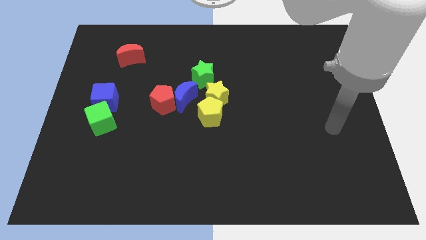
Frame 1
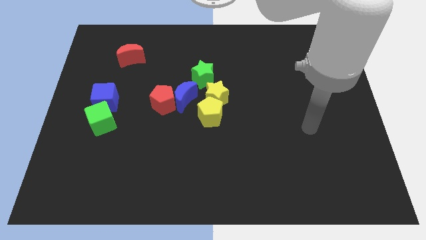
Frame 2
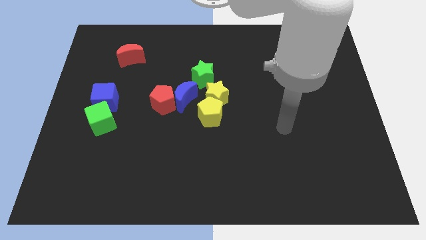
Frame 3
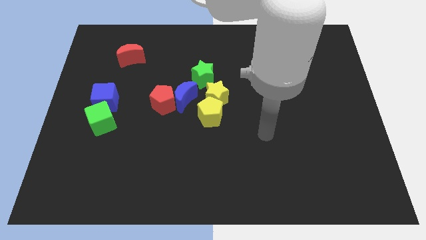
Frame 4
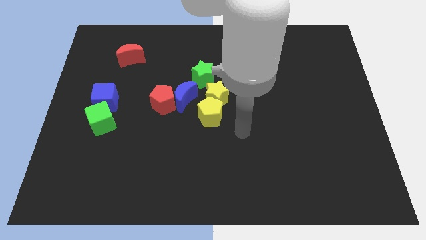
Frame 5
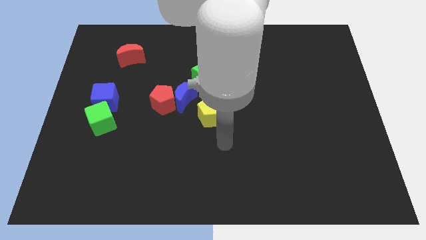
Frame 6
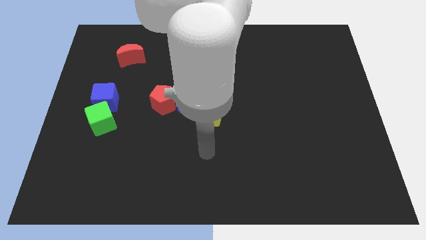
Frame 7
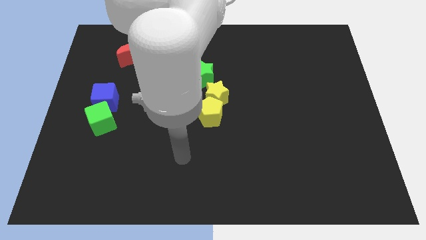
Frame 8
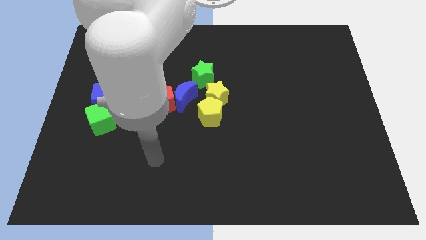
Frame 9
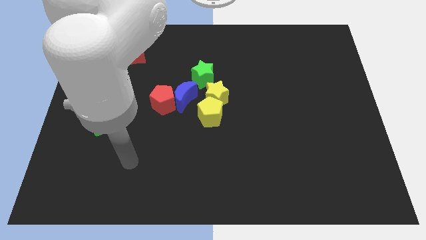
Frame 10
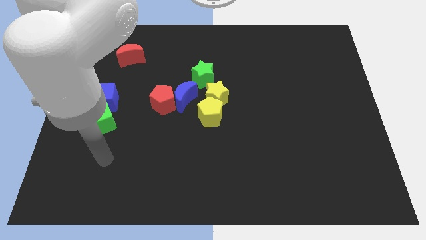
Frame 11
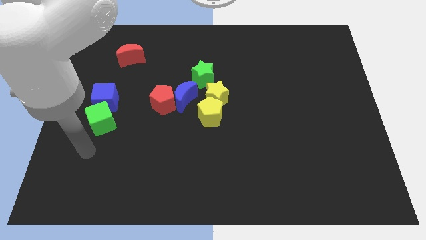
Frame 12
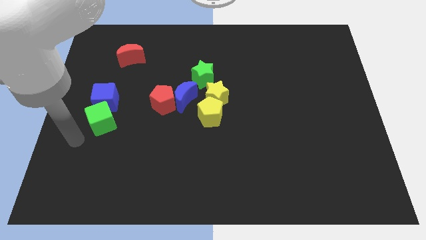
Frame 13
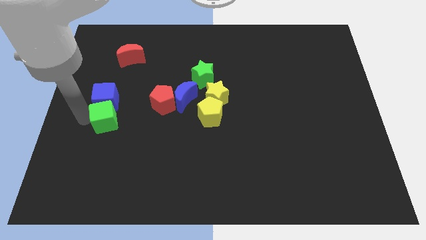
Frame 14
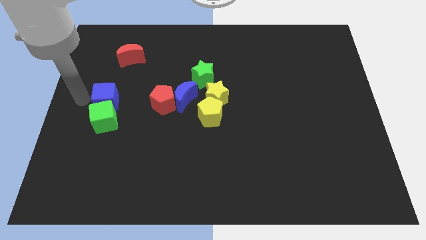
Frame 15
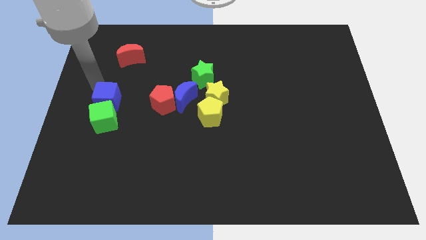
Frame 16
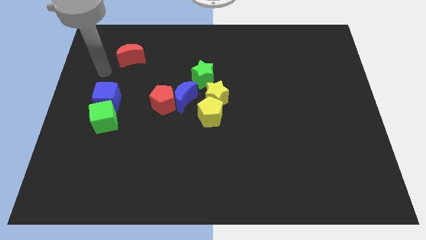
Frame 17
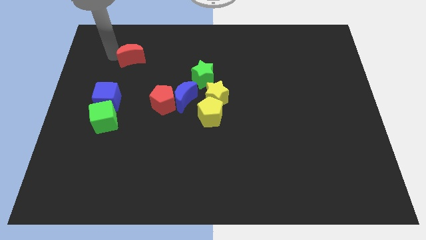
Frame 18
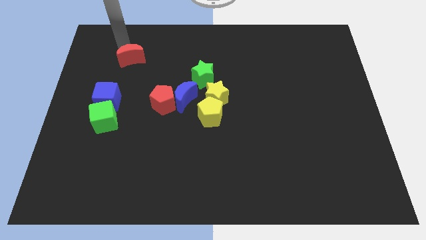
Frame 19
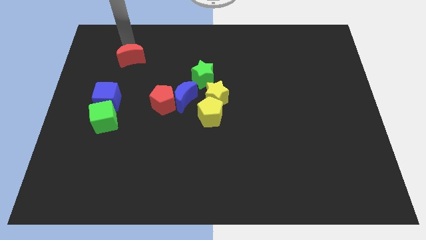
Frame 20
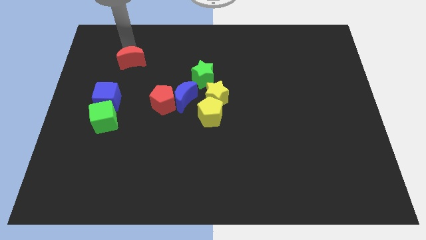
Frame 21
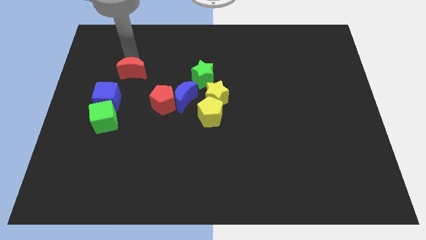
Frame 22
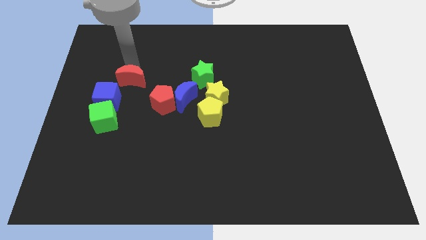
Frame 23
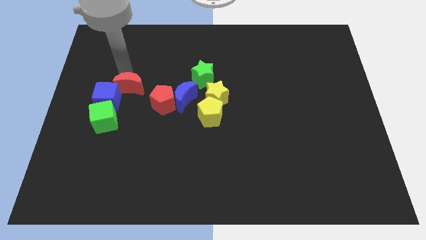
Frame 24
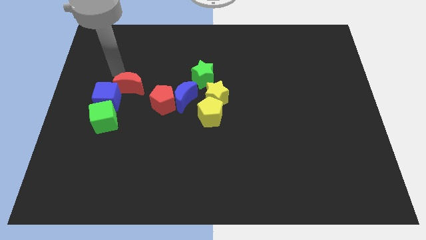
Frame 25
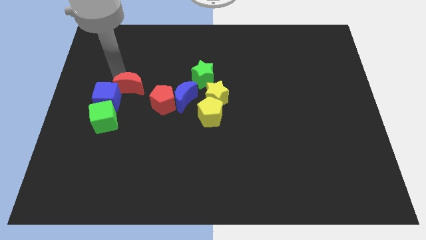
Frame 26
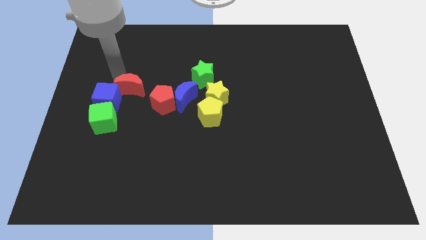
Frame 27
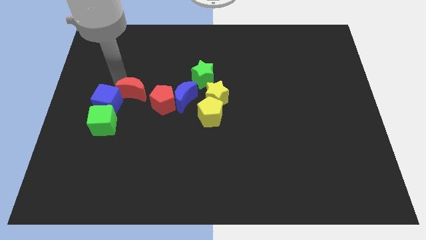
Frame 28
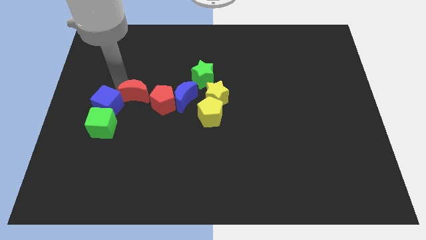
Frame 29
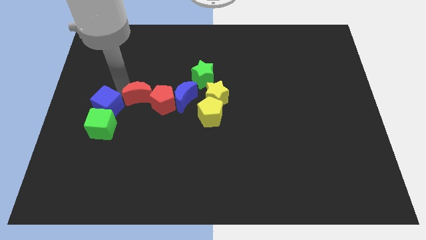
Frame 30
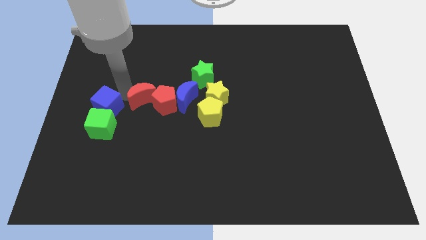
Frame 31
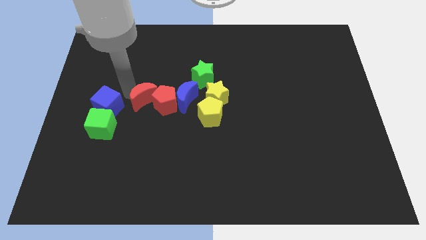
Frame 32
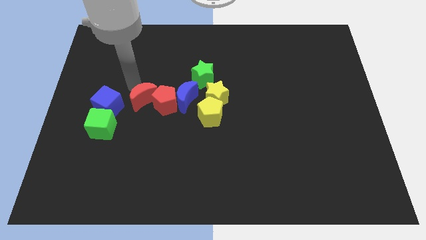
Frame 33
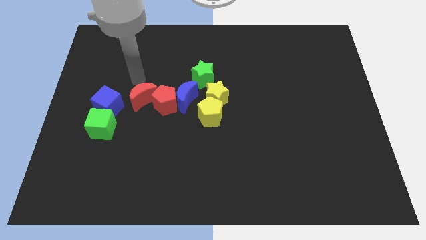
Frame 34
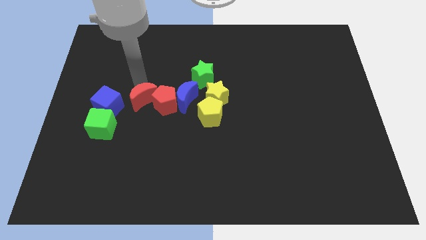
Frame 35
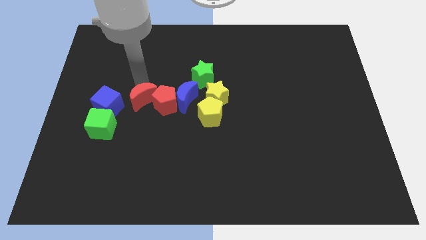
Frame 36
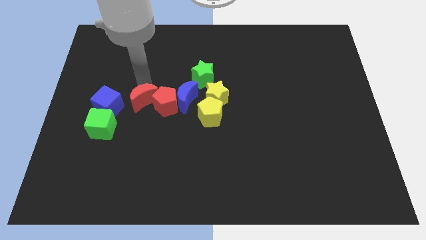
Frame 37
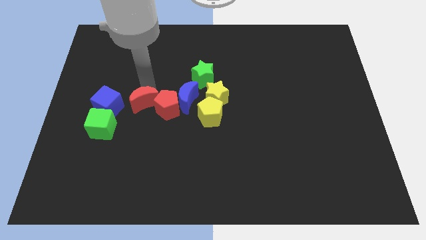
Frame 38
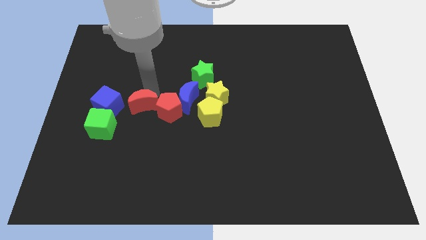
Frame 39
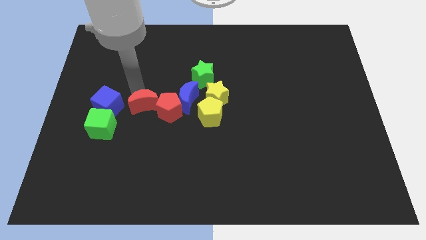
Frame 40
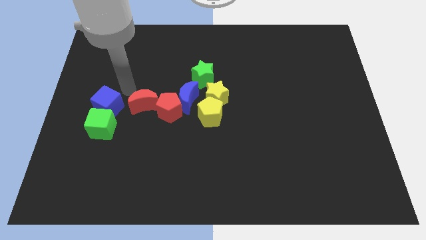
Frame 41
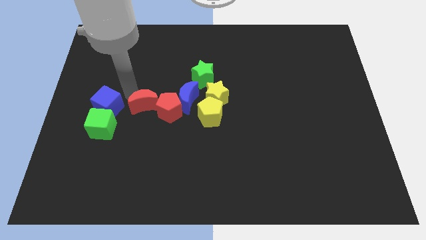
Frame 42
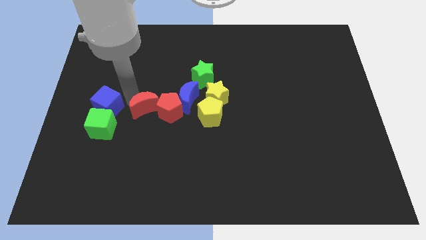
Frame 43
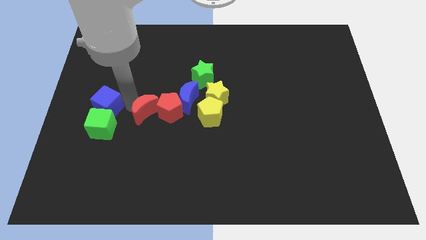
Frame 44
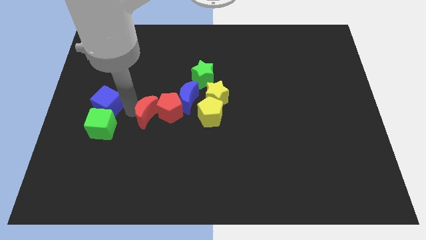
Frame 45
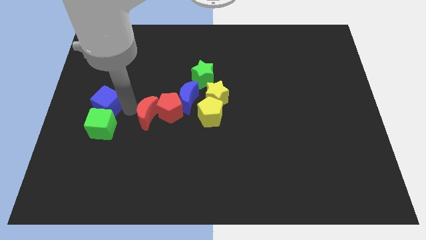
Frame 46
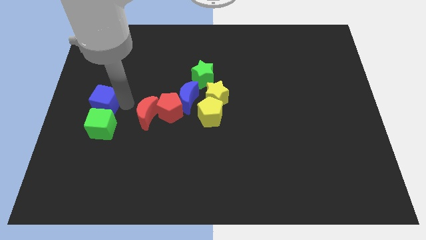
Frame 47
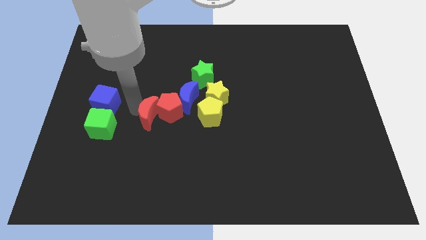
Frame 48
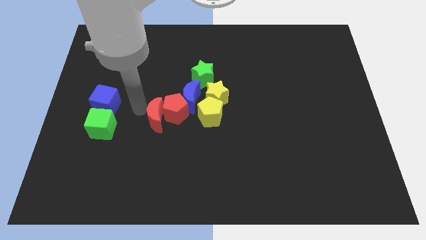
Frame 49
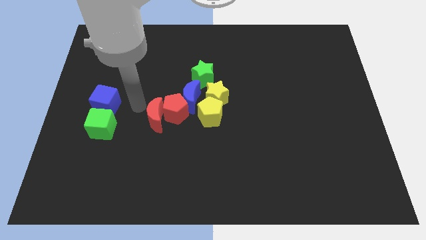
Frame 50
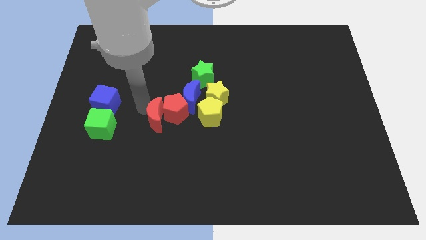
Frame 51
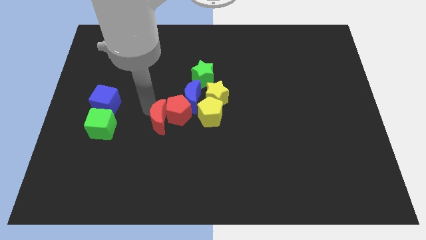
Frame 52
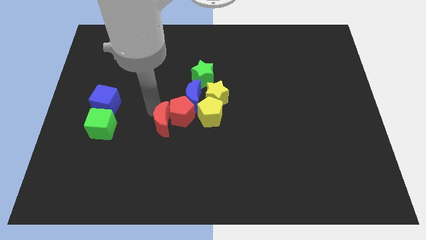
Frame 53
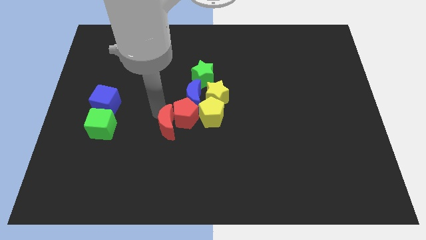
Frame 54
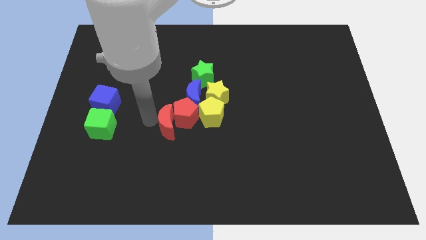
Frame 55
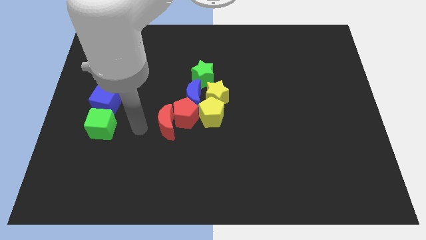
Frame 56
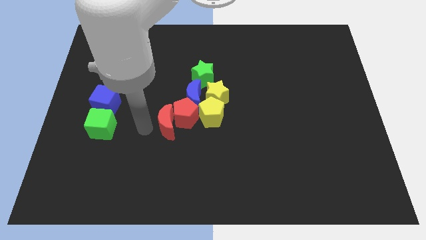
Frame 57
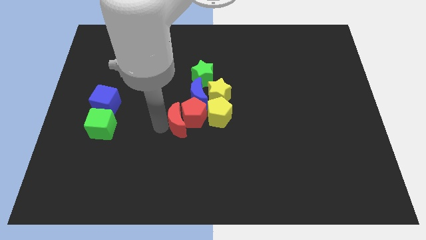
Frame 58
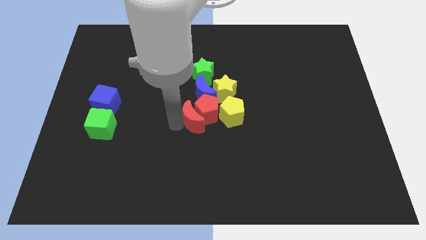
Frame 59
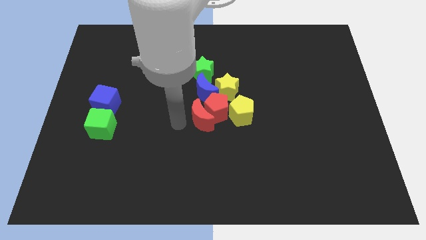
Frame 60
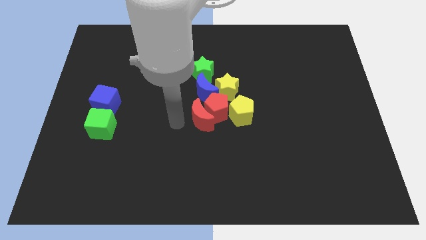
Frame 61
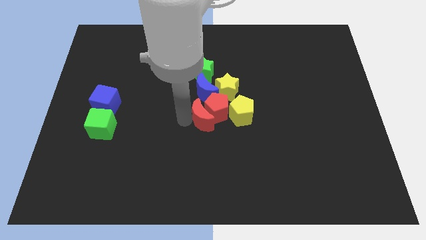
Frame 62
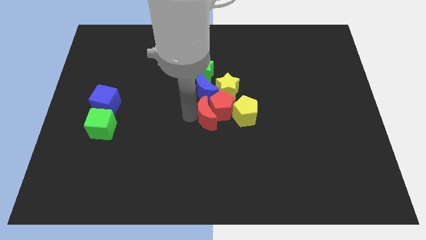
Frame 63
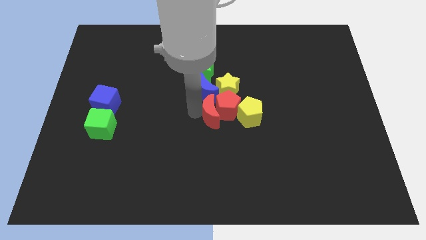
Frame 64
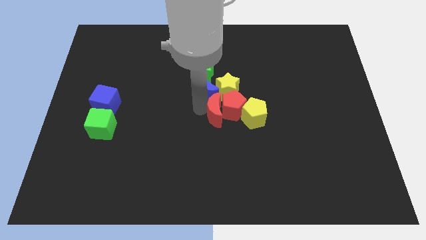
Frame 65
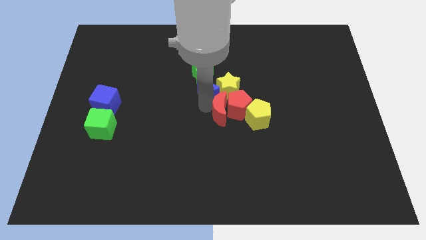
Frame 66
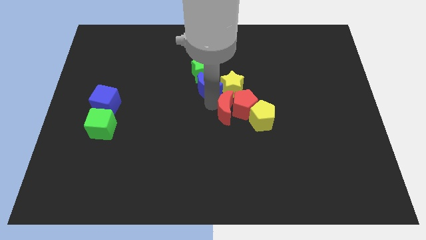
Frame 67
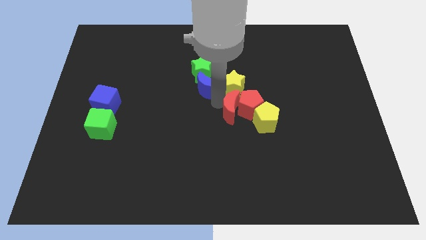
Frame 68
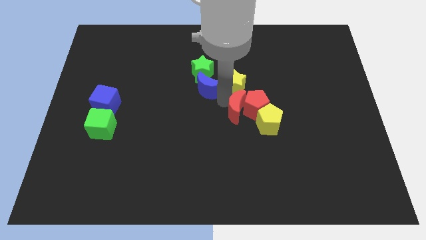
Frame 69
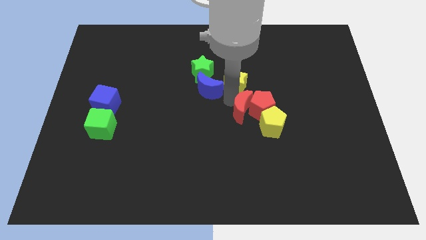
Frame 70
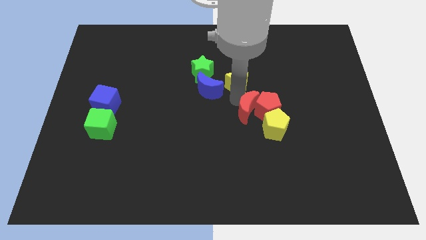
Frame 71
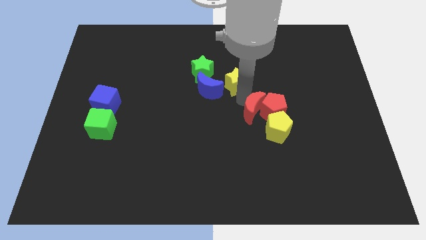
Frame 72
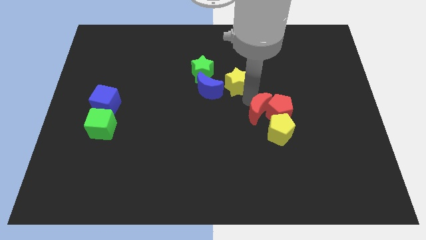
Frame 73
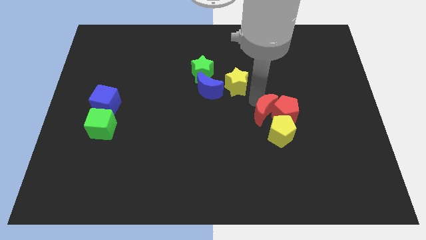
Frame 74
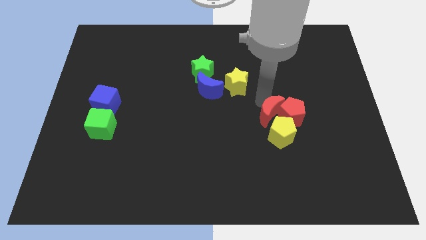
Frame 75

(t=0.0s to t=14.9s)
slide the red moon to the yellow pentagon
